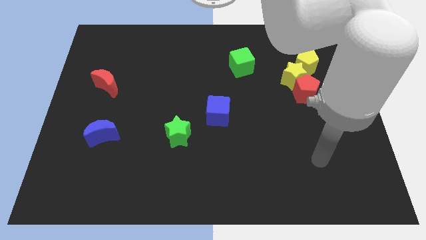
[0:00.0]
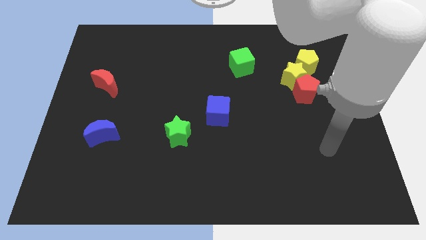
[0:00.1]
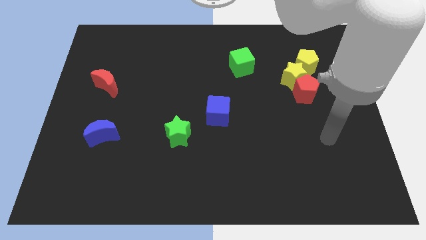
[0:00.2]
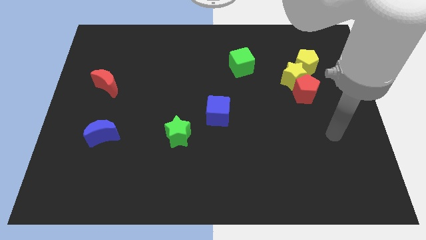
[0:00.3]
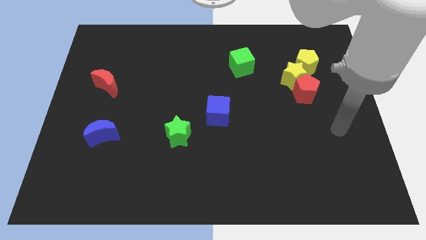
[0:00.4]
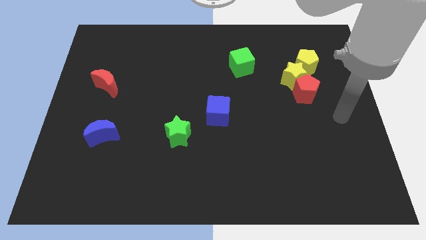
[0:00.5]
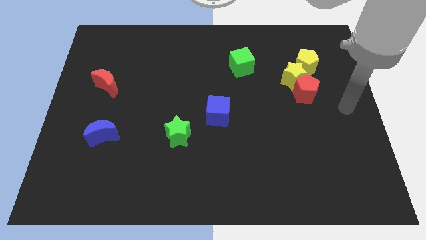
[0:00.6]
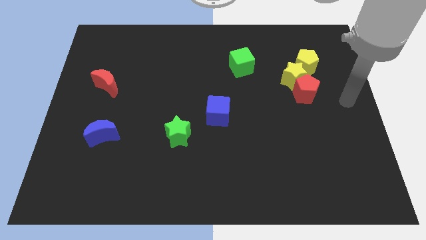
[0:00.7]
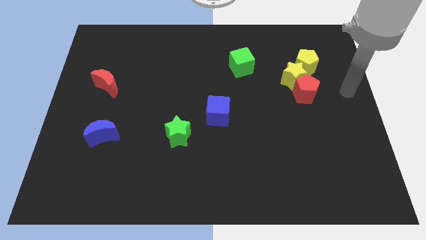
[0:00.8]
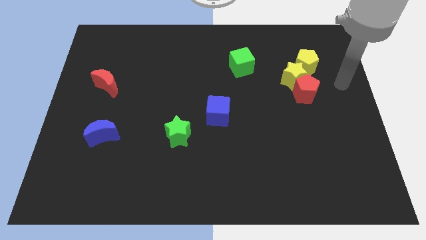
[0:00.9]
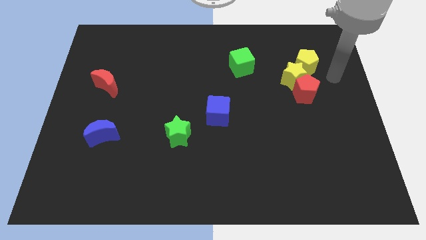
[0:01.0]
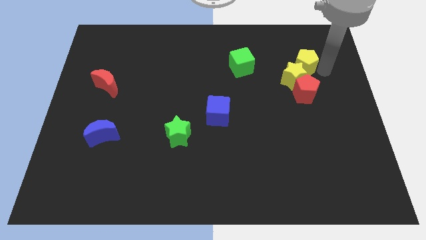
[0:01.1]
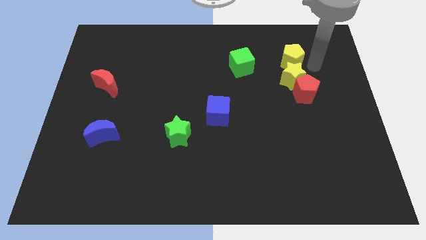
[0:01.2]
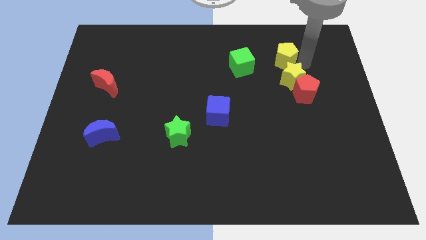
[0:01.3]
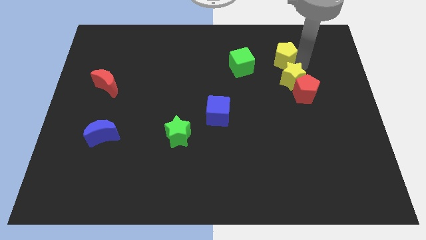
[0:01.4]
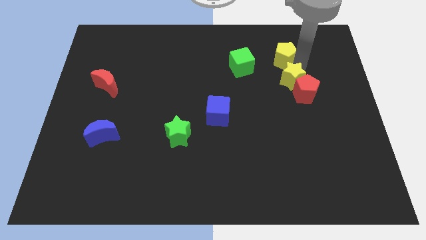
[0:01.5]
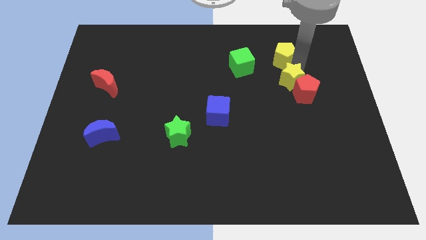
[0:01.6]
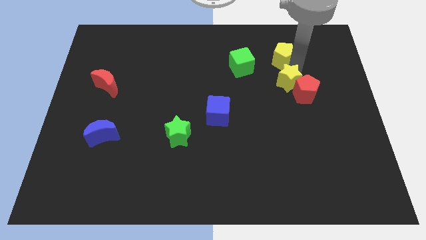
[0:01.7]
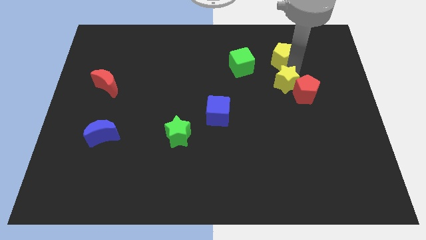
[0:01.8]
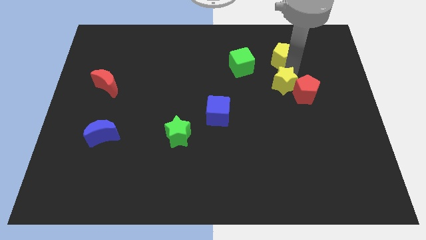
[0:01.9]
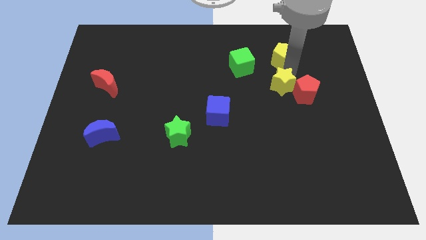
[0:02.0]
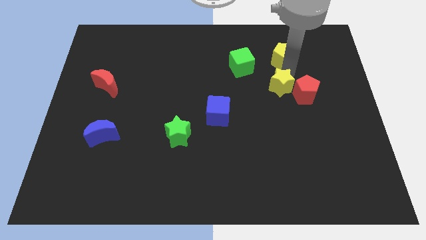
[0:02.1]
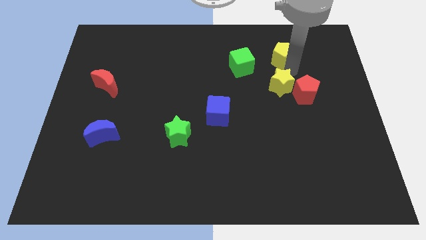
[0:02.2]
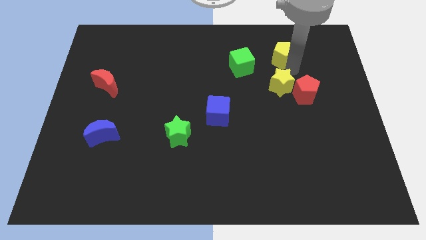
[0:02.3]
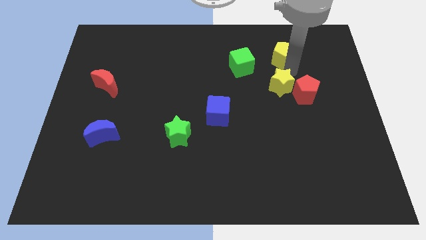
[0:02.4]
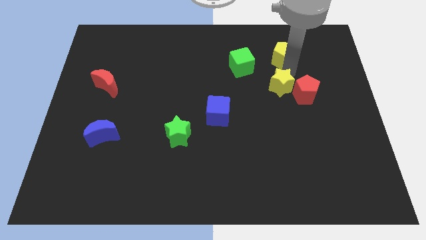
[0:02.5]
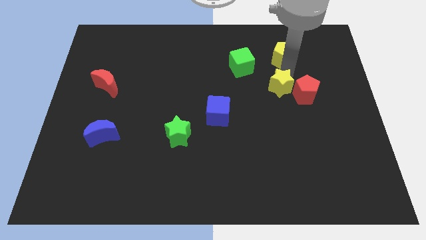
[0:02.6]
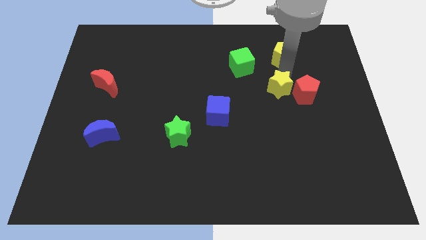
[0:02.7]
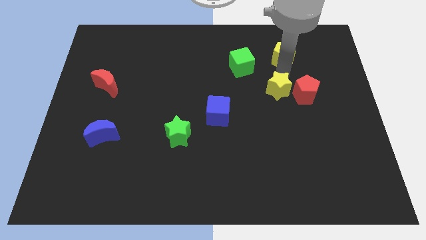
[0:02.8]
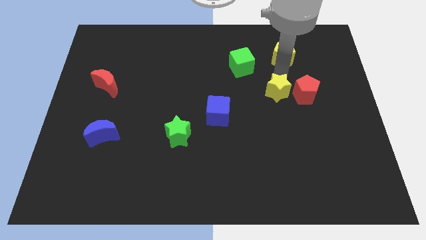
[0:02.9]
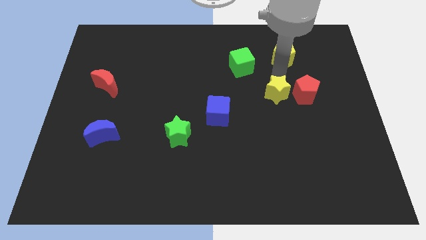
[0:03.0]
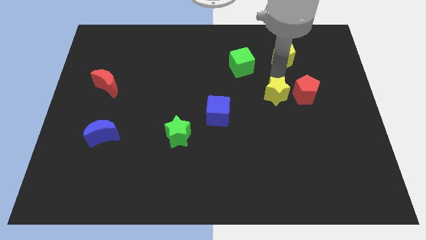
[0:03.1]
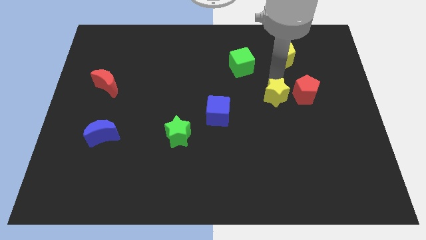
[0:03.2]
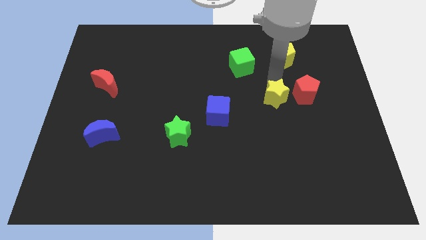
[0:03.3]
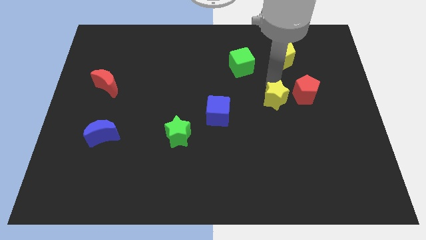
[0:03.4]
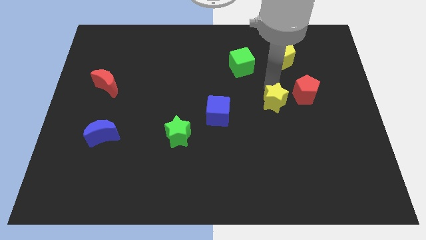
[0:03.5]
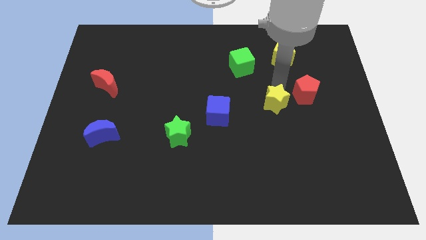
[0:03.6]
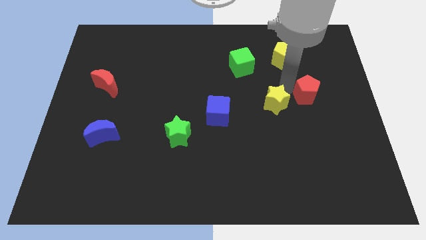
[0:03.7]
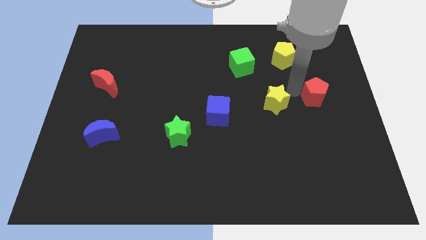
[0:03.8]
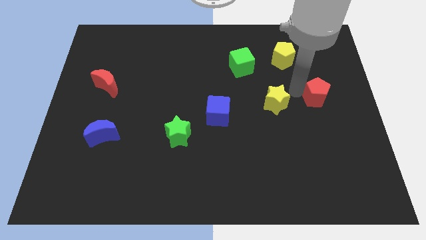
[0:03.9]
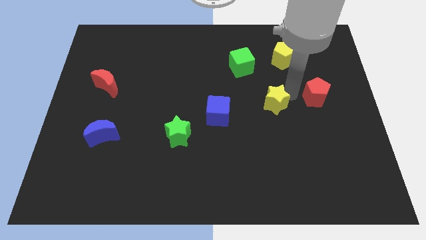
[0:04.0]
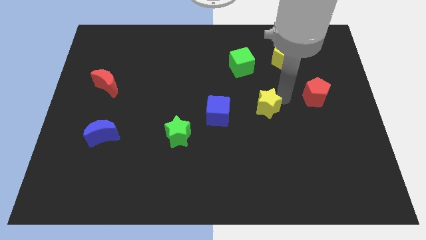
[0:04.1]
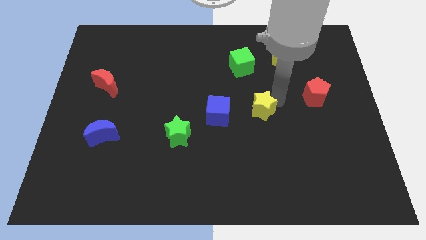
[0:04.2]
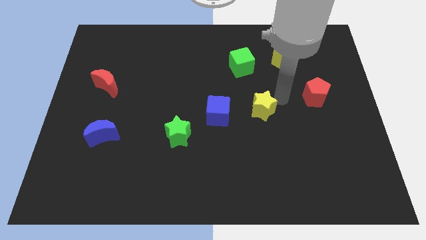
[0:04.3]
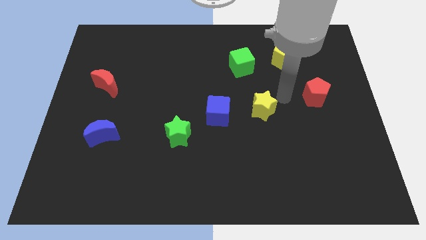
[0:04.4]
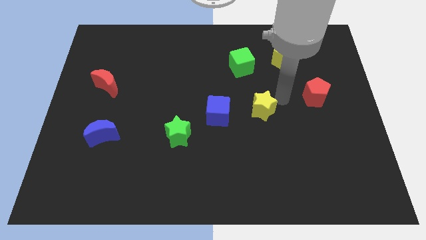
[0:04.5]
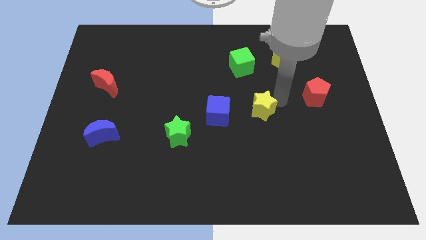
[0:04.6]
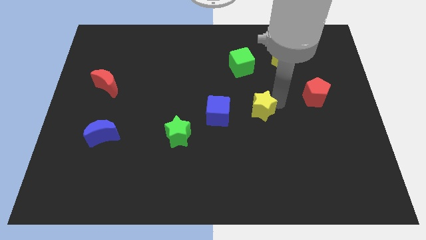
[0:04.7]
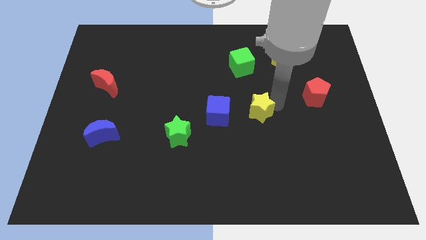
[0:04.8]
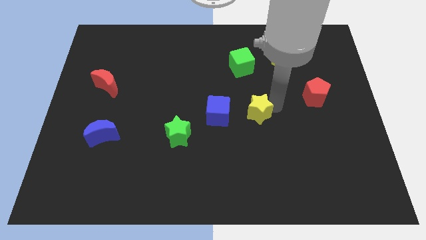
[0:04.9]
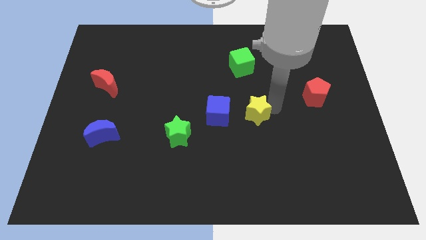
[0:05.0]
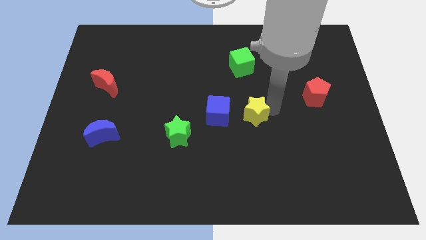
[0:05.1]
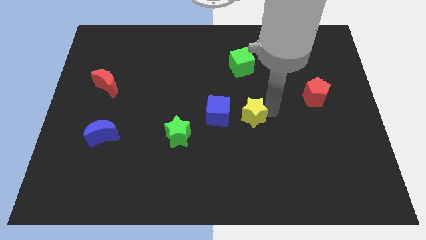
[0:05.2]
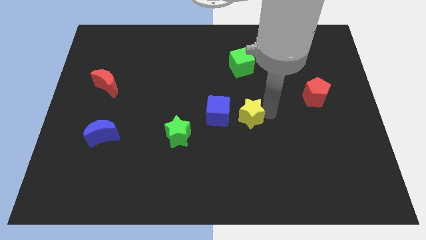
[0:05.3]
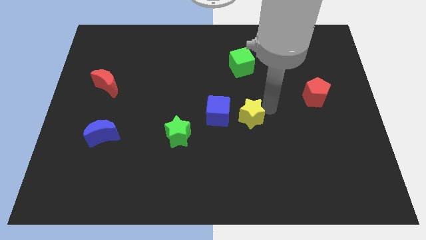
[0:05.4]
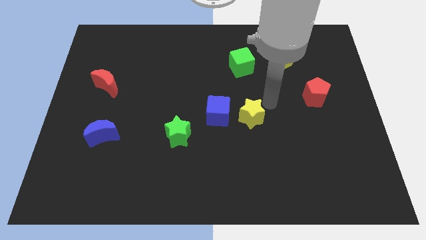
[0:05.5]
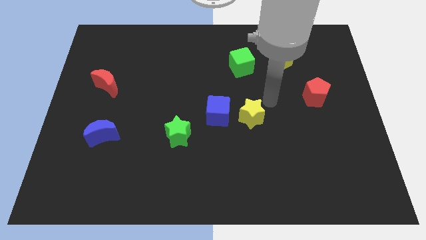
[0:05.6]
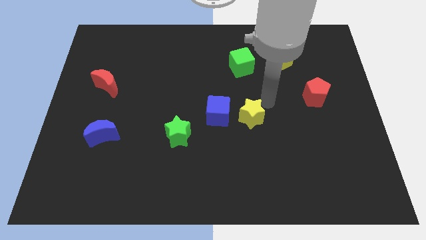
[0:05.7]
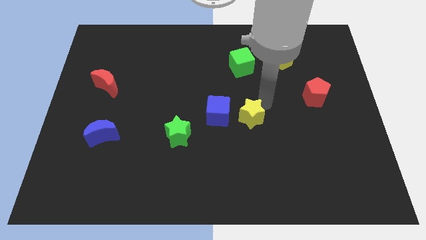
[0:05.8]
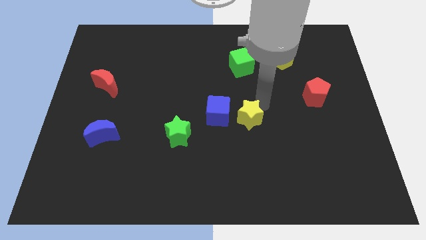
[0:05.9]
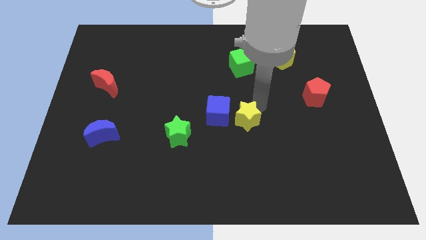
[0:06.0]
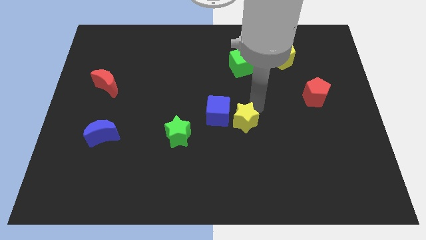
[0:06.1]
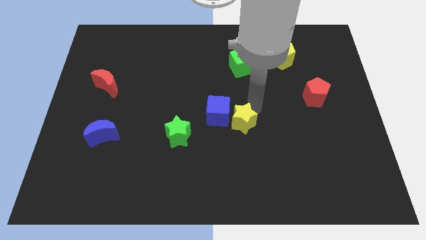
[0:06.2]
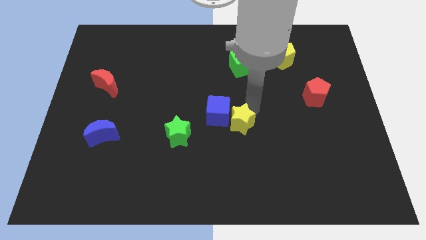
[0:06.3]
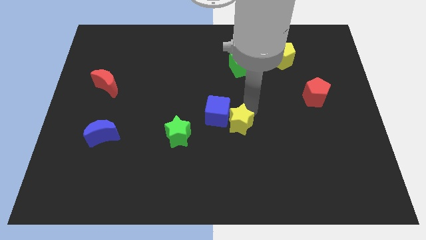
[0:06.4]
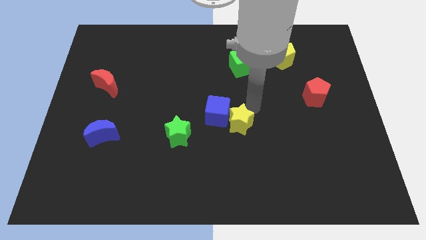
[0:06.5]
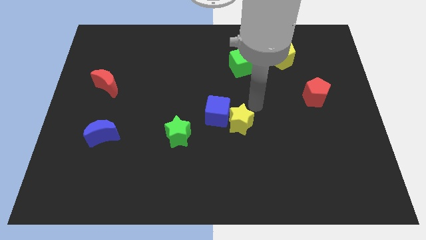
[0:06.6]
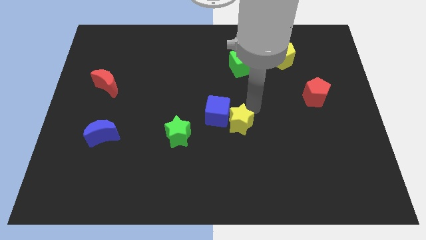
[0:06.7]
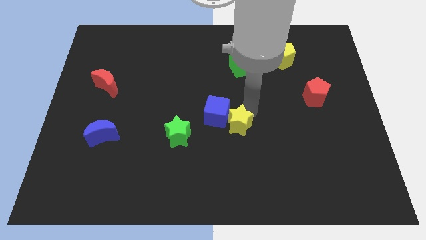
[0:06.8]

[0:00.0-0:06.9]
push the yellow star downwards and left diagonally

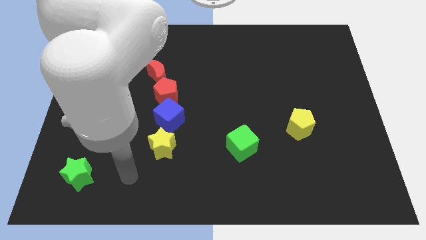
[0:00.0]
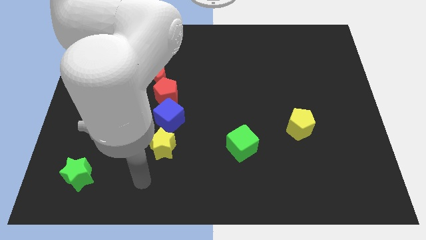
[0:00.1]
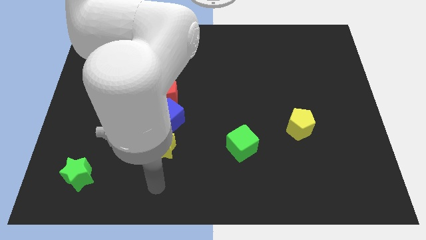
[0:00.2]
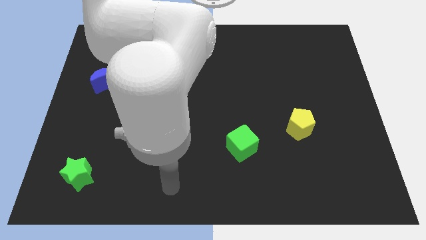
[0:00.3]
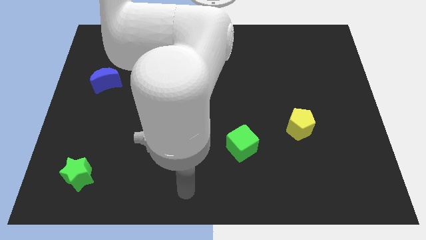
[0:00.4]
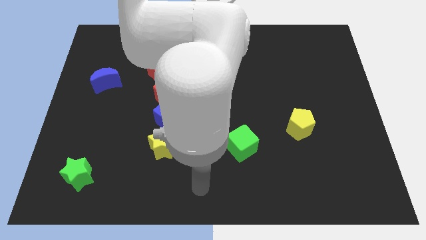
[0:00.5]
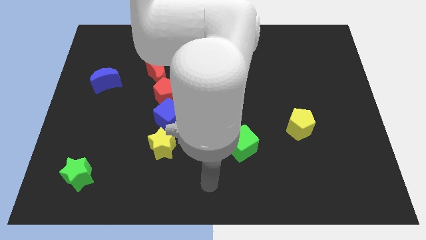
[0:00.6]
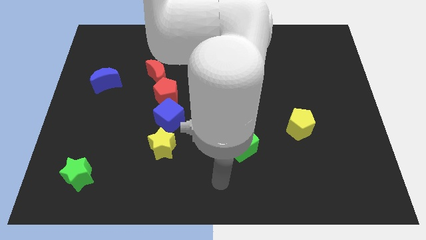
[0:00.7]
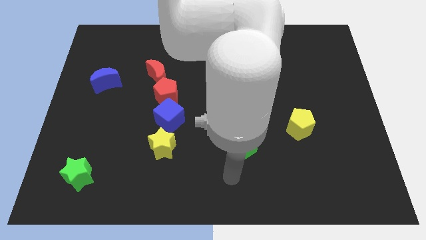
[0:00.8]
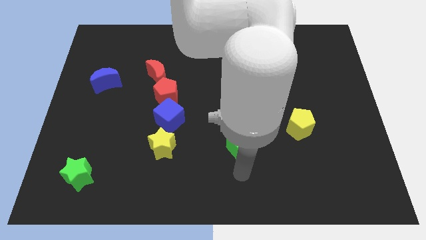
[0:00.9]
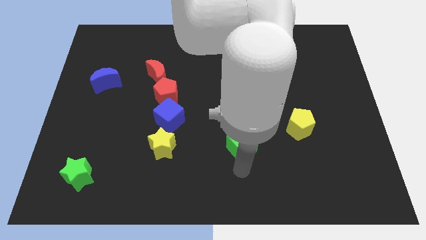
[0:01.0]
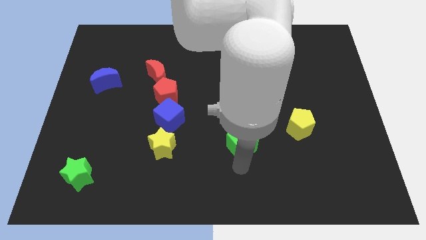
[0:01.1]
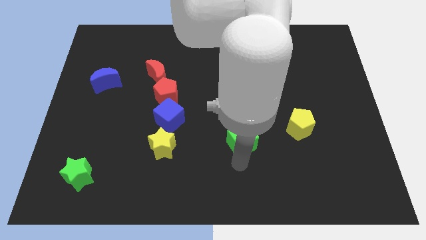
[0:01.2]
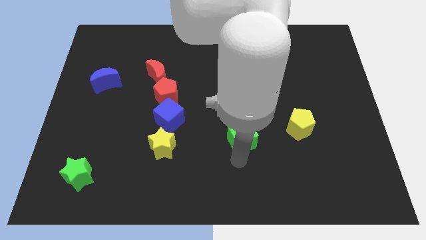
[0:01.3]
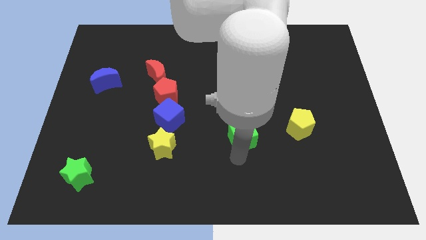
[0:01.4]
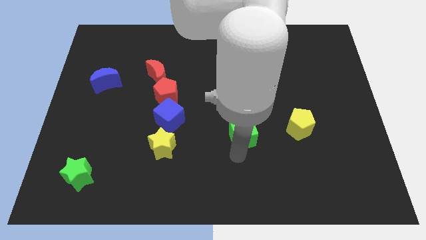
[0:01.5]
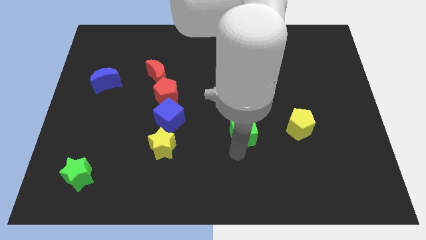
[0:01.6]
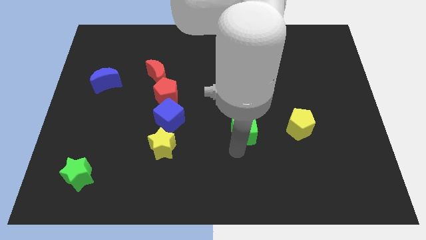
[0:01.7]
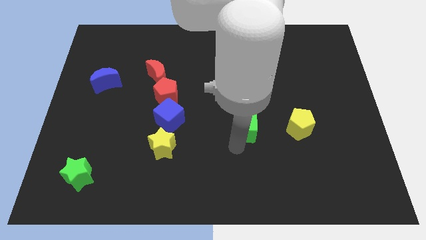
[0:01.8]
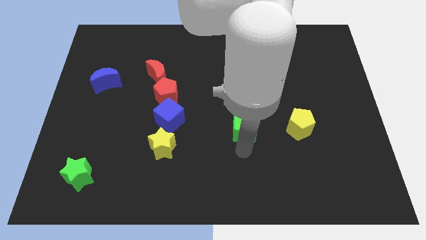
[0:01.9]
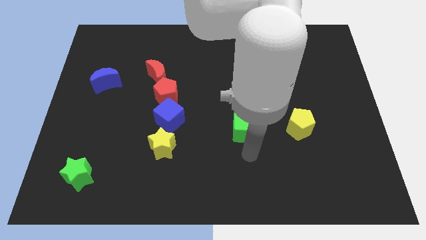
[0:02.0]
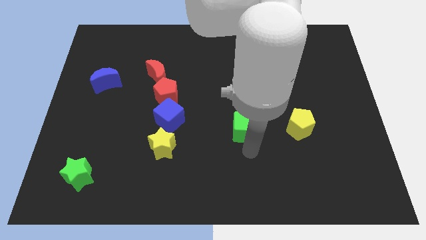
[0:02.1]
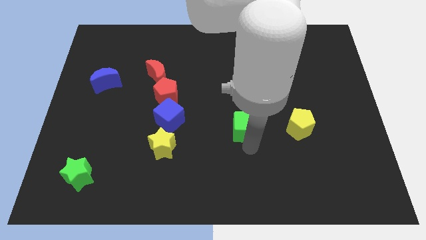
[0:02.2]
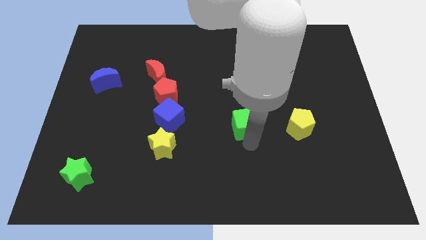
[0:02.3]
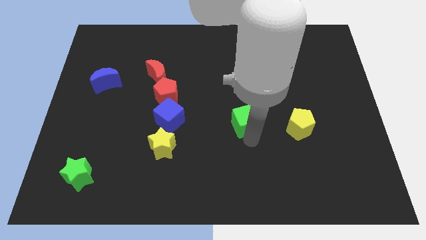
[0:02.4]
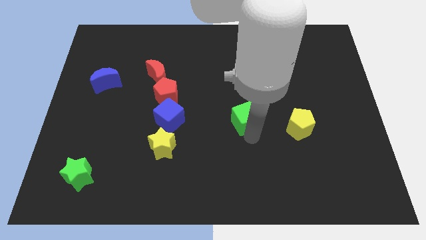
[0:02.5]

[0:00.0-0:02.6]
slightly push the green cube up
